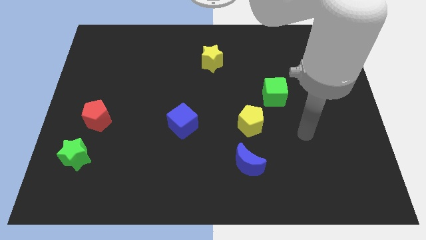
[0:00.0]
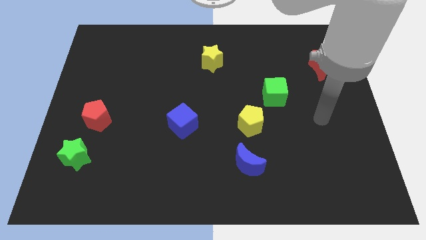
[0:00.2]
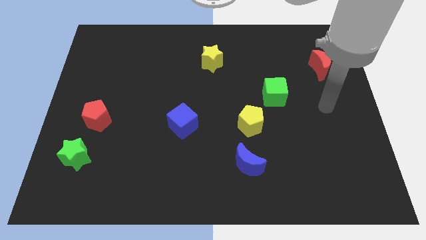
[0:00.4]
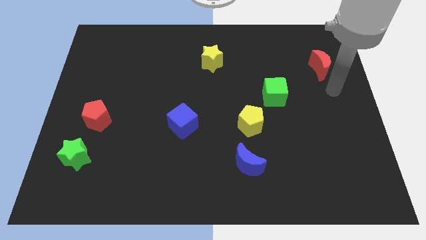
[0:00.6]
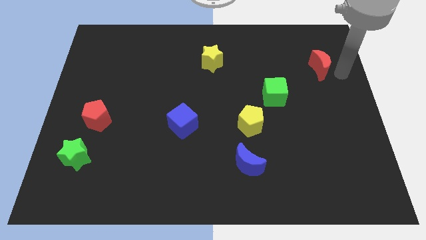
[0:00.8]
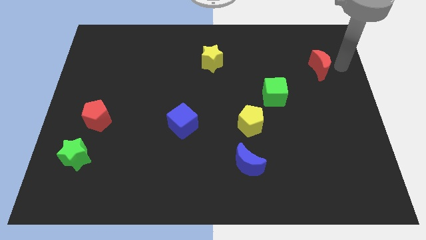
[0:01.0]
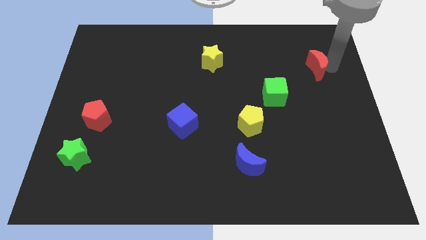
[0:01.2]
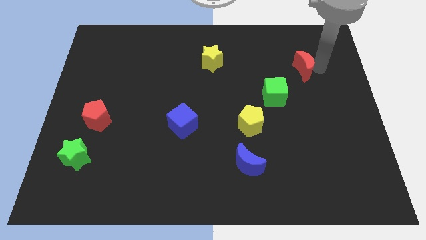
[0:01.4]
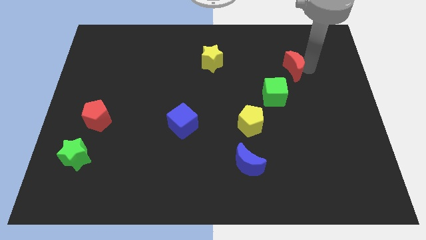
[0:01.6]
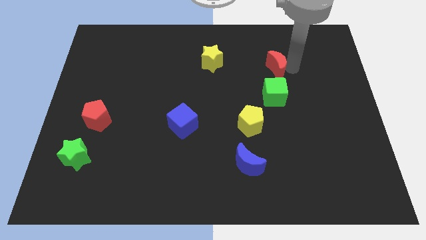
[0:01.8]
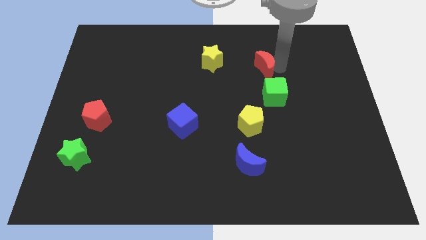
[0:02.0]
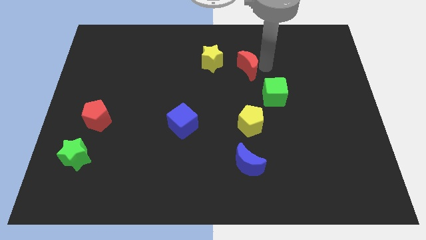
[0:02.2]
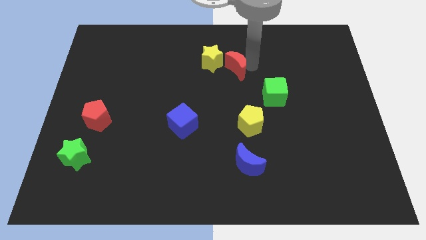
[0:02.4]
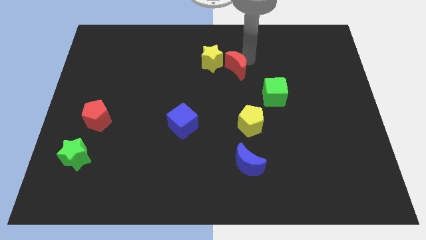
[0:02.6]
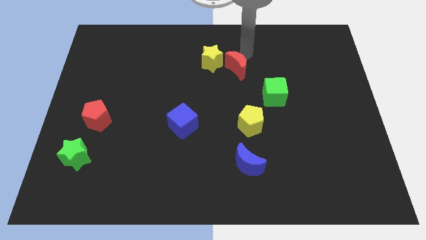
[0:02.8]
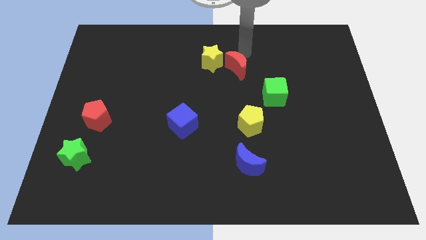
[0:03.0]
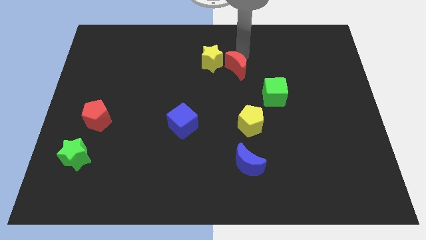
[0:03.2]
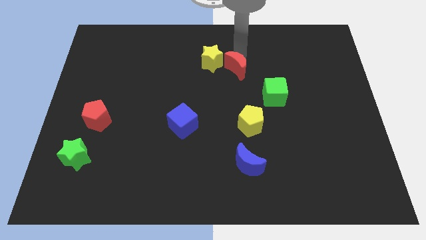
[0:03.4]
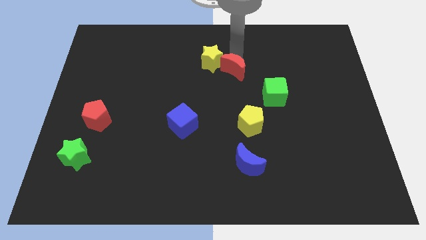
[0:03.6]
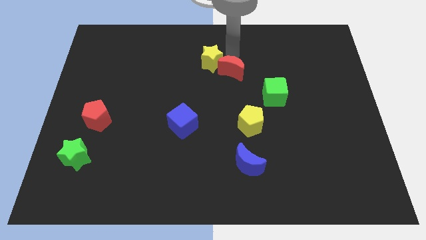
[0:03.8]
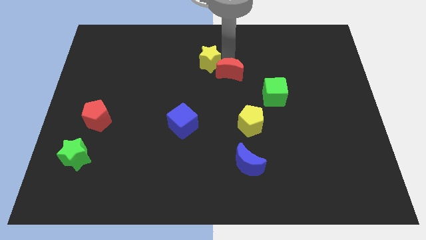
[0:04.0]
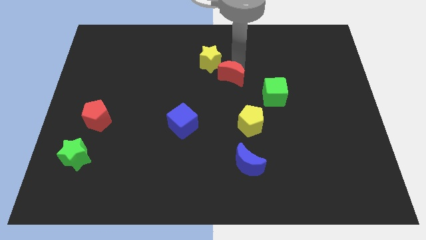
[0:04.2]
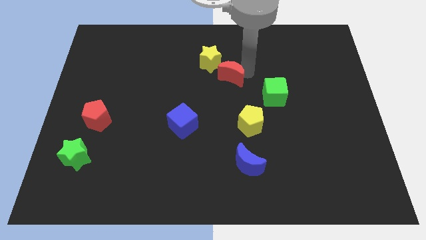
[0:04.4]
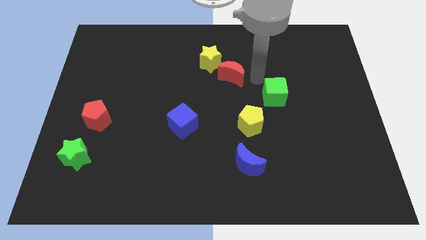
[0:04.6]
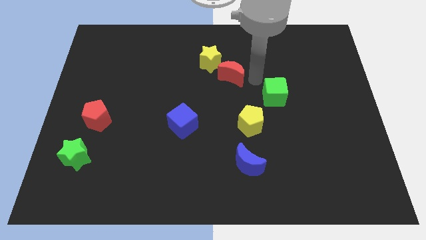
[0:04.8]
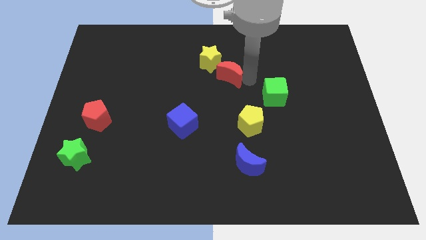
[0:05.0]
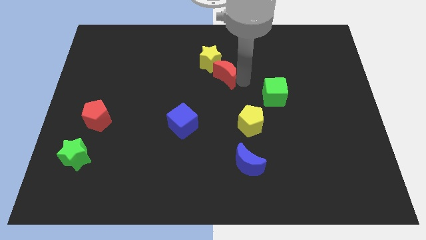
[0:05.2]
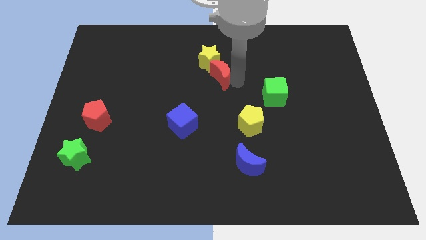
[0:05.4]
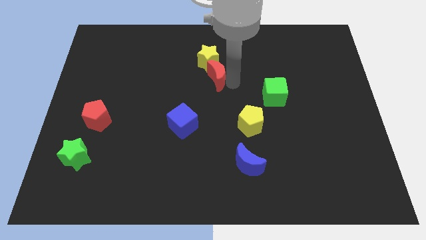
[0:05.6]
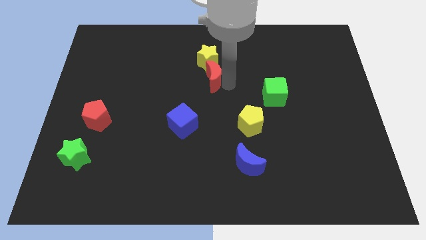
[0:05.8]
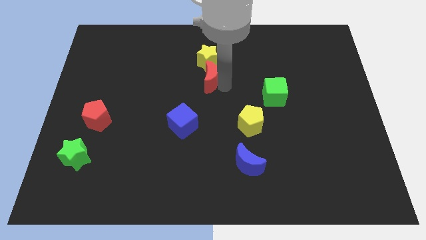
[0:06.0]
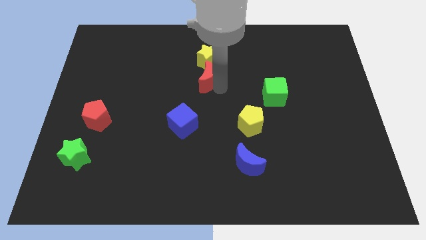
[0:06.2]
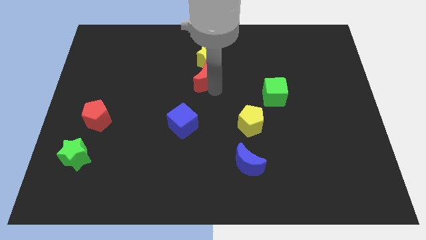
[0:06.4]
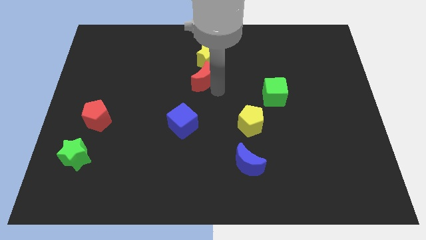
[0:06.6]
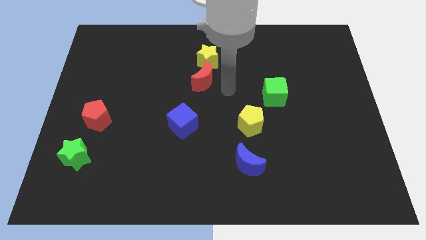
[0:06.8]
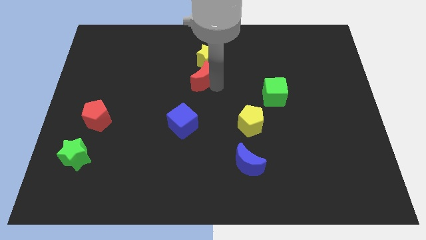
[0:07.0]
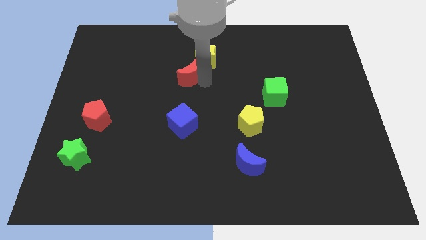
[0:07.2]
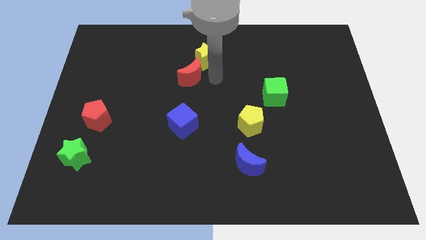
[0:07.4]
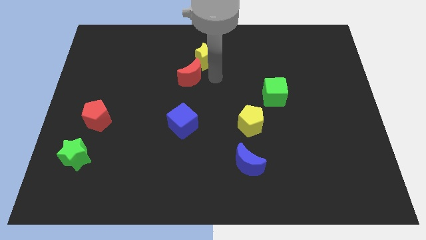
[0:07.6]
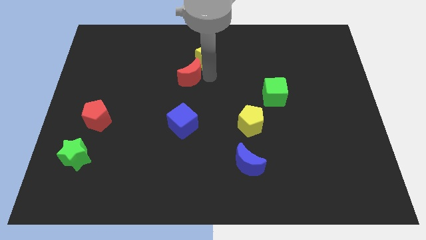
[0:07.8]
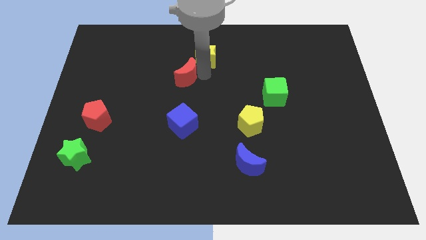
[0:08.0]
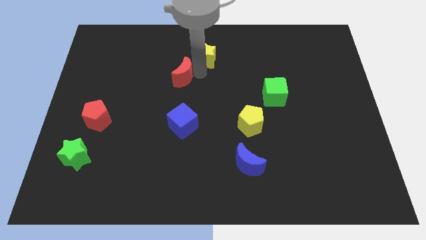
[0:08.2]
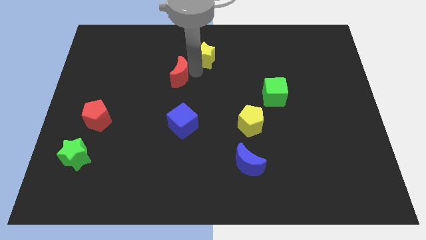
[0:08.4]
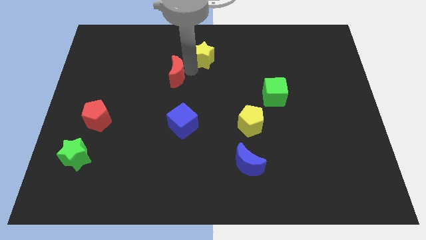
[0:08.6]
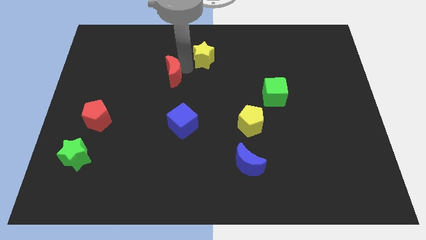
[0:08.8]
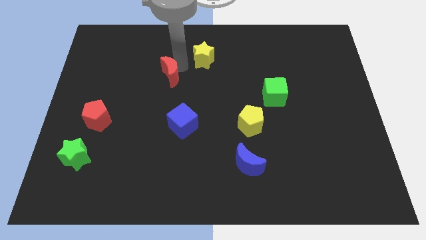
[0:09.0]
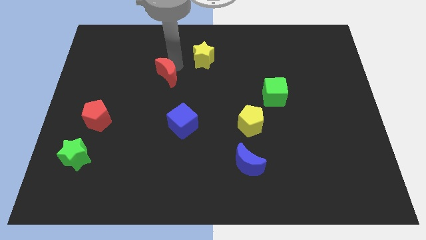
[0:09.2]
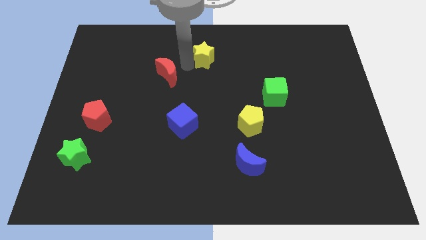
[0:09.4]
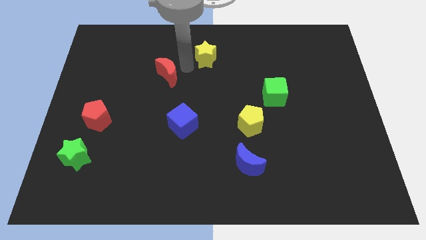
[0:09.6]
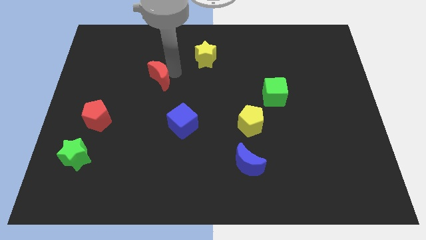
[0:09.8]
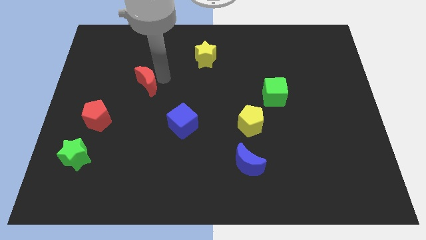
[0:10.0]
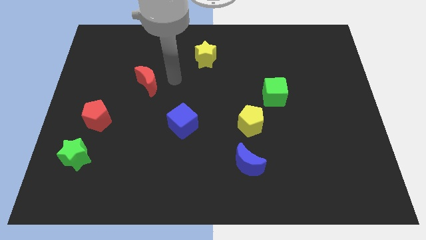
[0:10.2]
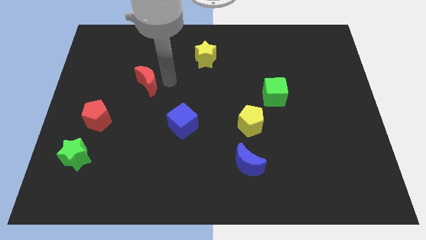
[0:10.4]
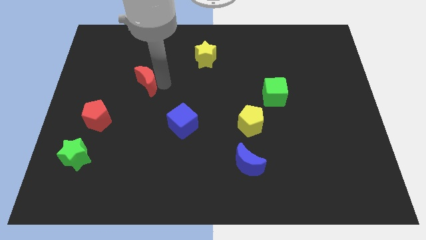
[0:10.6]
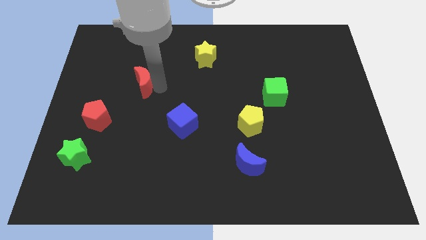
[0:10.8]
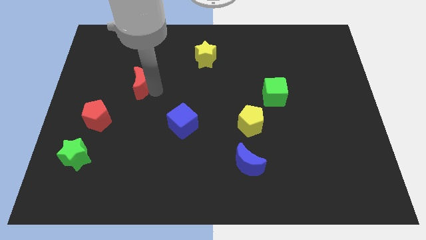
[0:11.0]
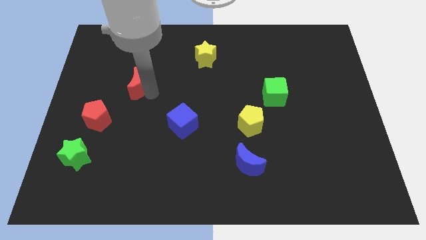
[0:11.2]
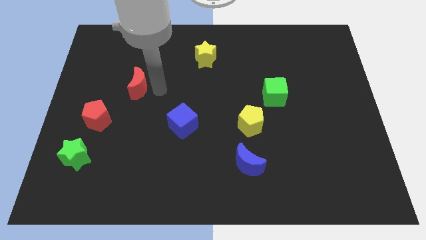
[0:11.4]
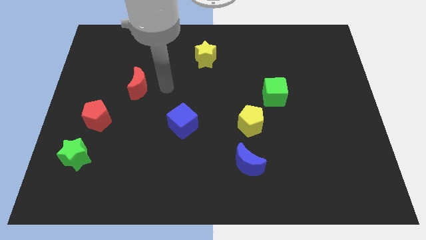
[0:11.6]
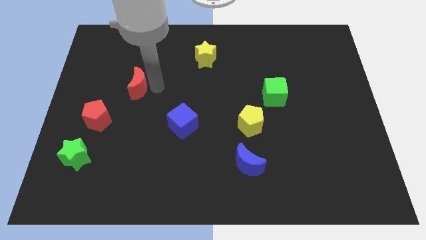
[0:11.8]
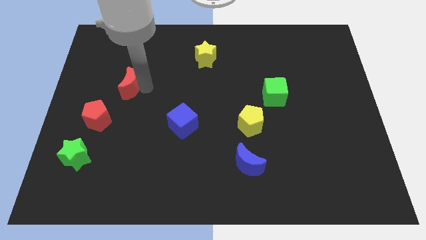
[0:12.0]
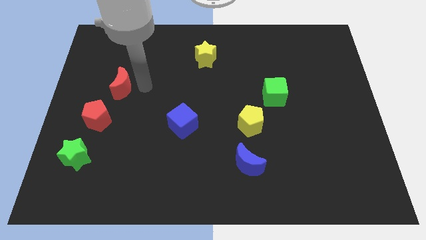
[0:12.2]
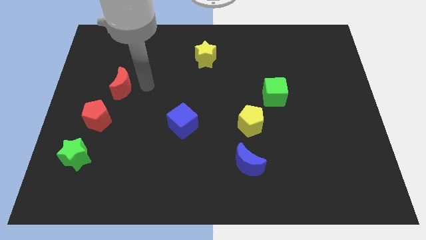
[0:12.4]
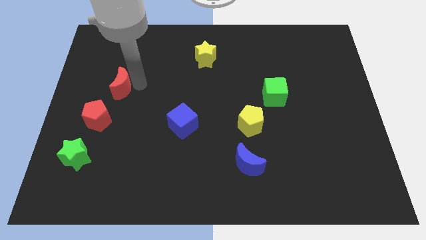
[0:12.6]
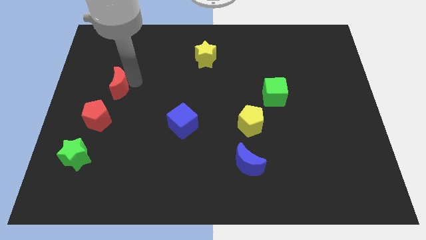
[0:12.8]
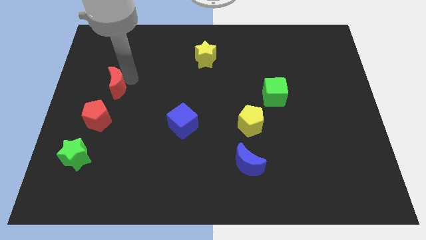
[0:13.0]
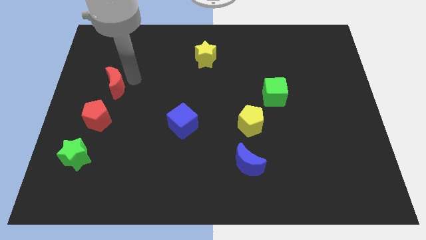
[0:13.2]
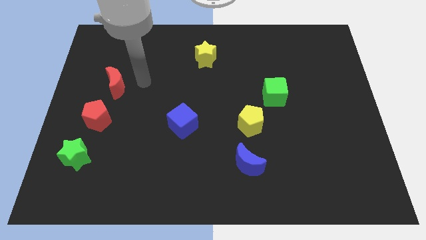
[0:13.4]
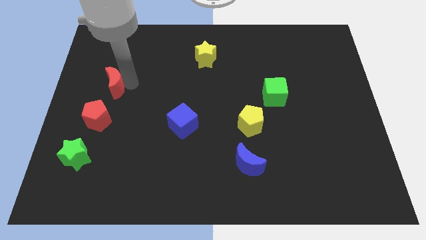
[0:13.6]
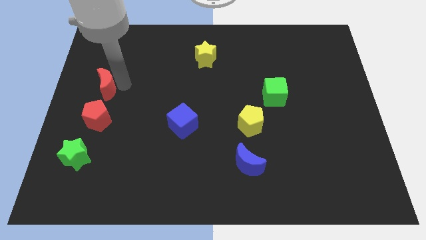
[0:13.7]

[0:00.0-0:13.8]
move the red moon to the left side

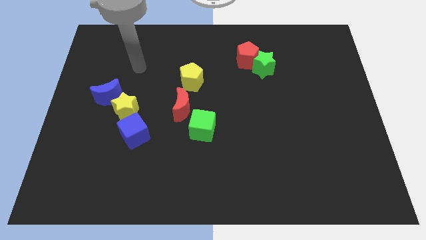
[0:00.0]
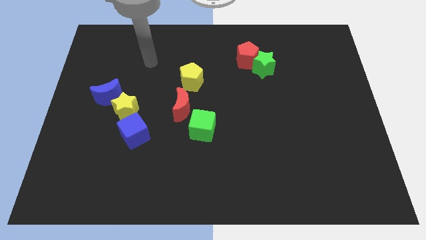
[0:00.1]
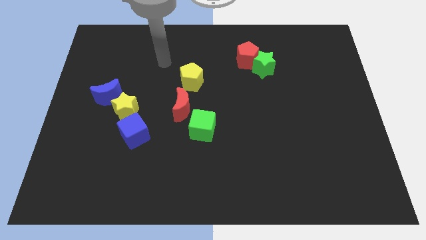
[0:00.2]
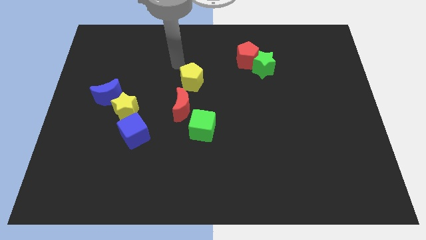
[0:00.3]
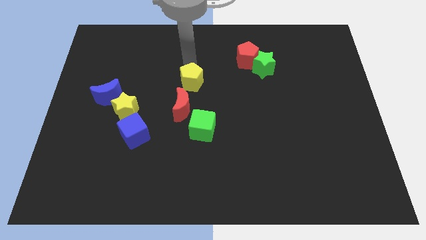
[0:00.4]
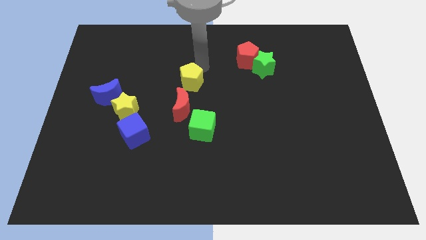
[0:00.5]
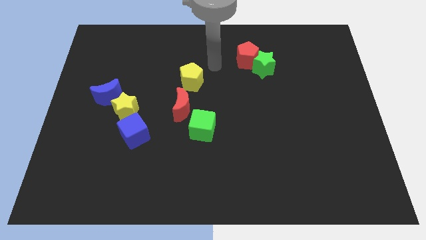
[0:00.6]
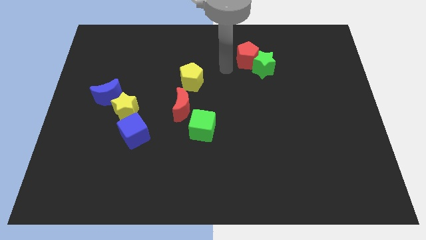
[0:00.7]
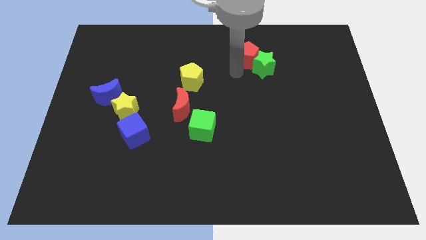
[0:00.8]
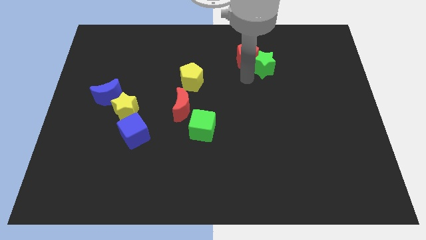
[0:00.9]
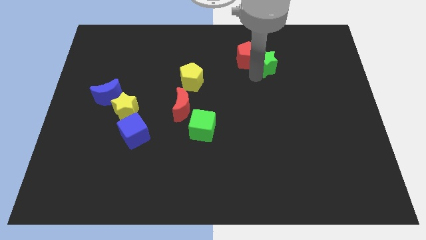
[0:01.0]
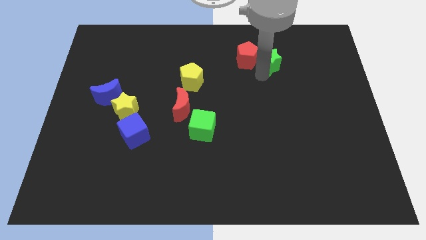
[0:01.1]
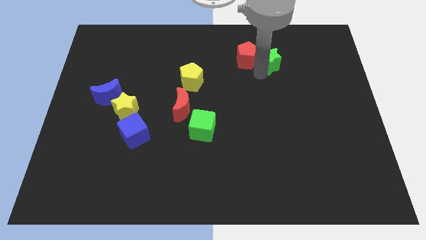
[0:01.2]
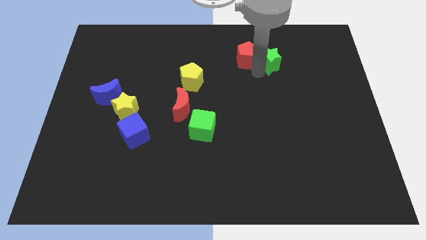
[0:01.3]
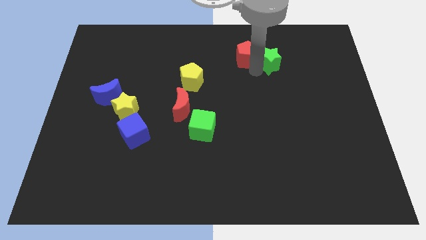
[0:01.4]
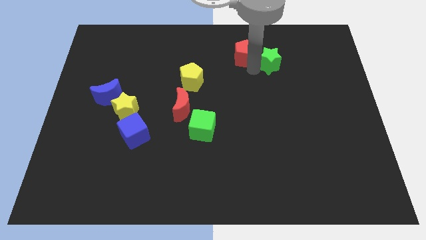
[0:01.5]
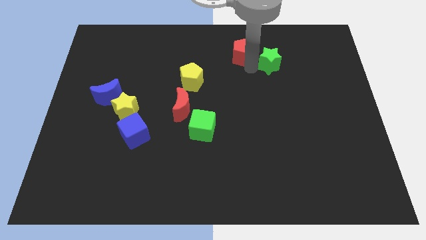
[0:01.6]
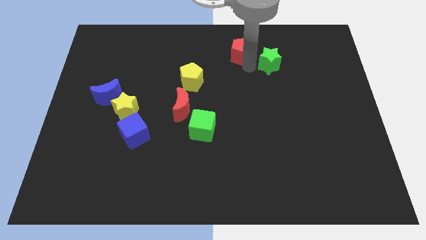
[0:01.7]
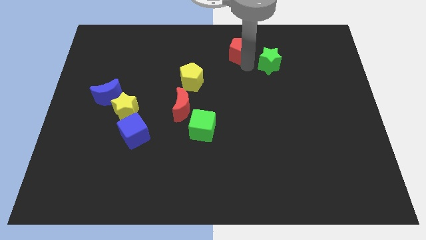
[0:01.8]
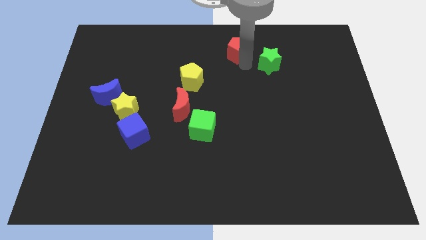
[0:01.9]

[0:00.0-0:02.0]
move the red pentagon to the towards your base
